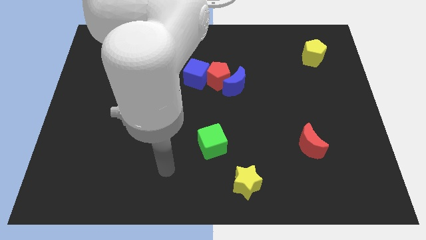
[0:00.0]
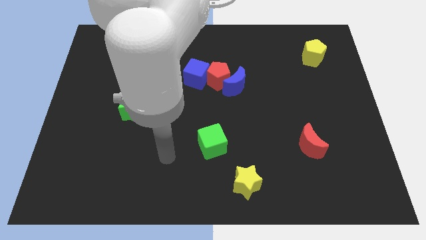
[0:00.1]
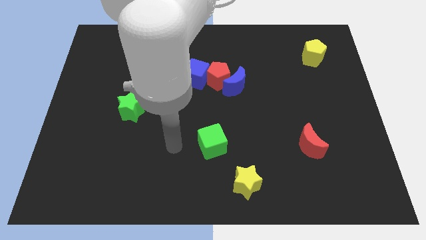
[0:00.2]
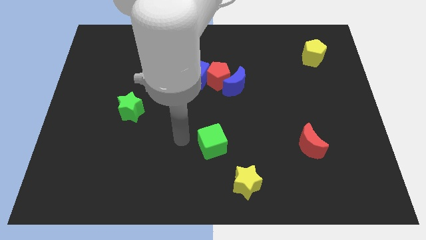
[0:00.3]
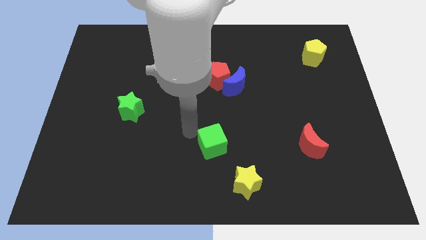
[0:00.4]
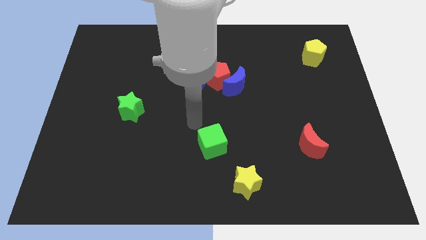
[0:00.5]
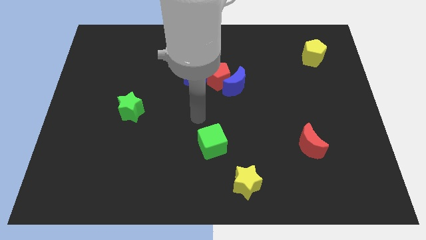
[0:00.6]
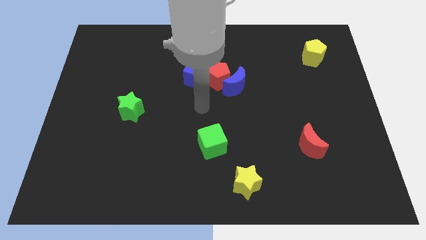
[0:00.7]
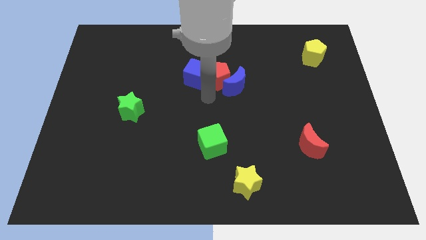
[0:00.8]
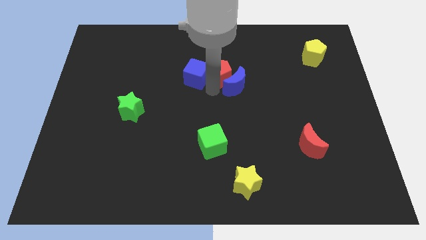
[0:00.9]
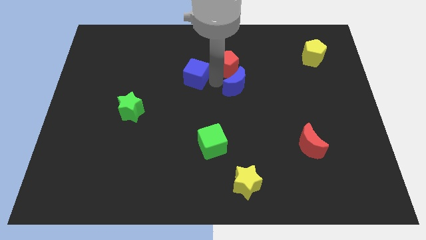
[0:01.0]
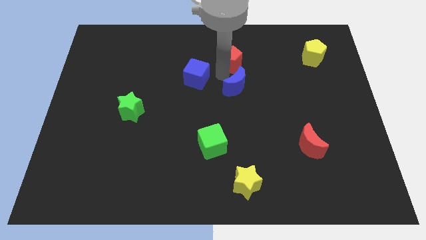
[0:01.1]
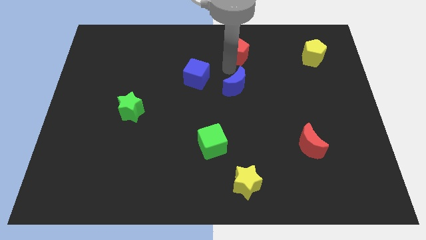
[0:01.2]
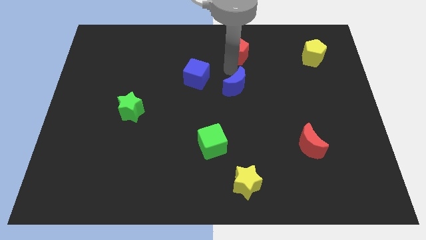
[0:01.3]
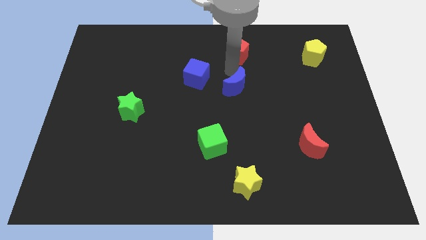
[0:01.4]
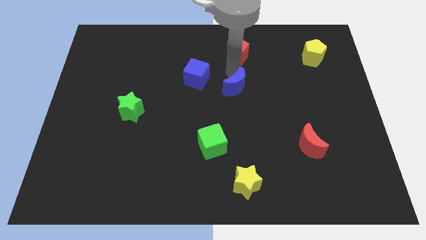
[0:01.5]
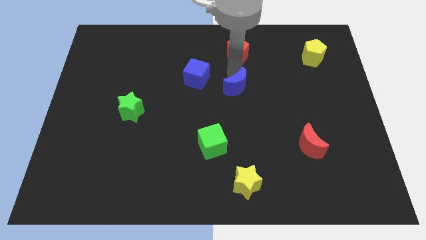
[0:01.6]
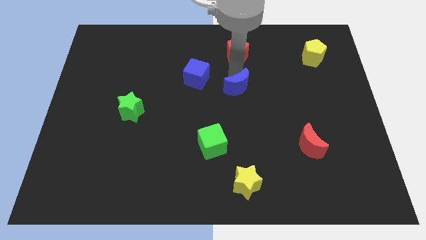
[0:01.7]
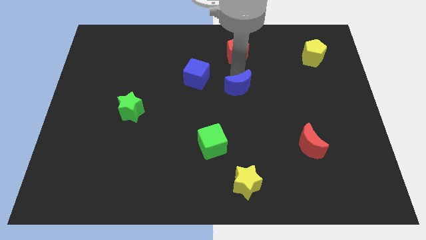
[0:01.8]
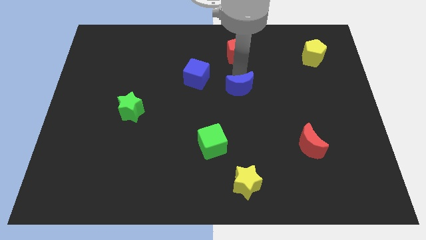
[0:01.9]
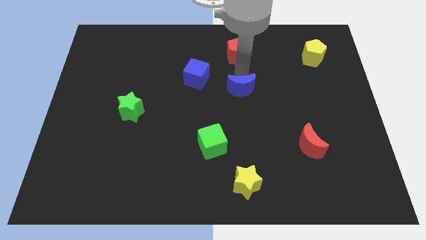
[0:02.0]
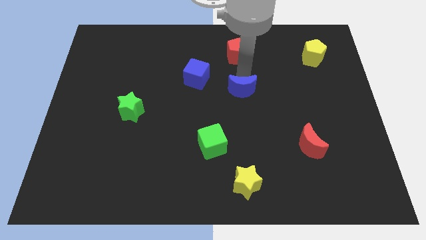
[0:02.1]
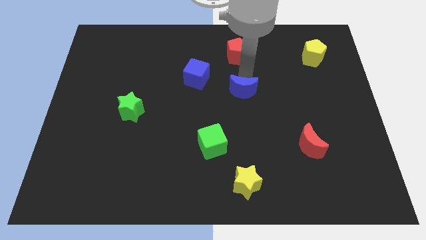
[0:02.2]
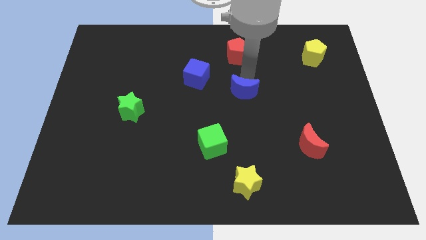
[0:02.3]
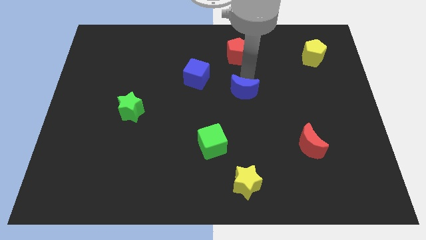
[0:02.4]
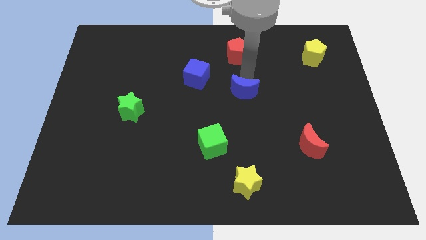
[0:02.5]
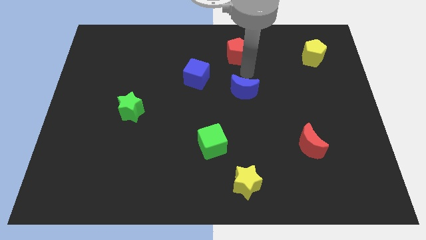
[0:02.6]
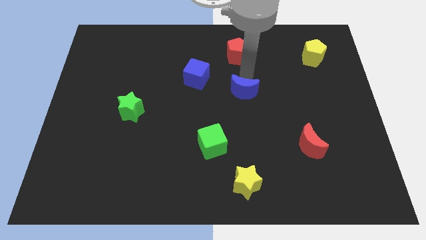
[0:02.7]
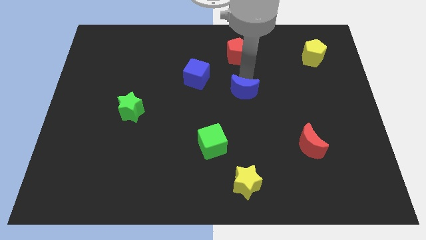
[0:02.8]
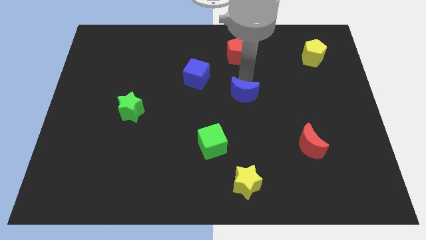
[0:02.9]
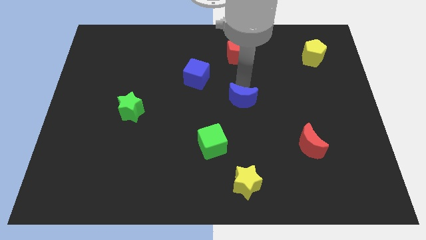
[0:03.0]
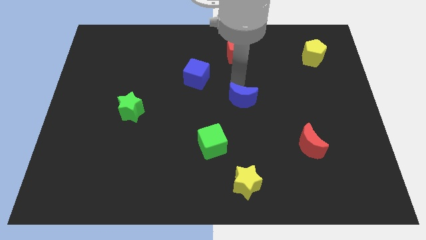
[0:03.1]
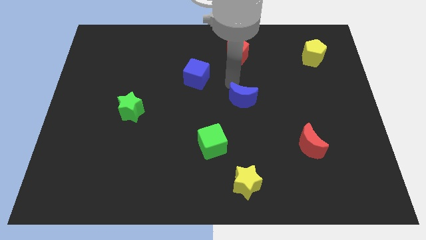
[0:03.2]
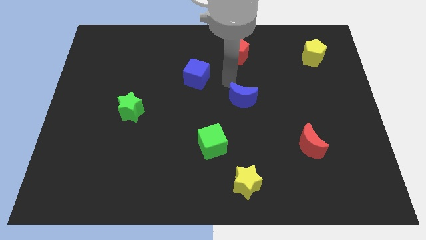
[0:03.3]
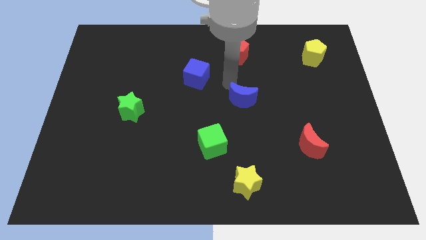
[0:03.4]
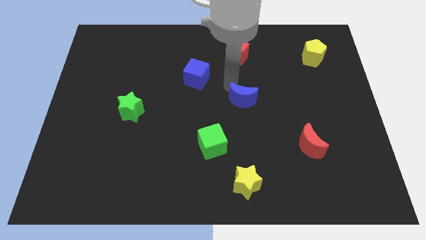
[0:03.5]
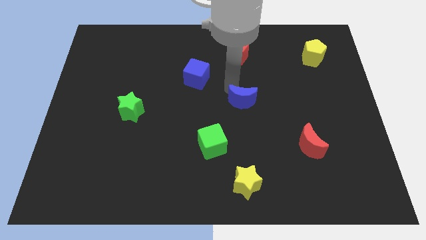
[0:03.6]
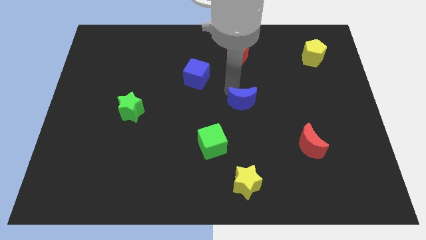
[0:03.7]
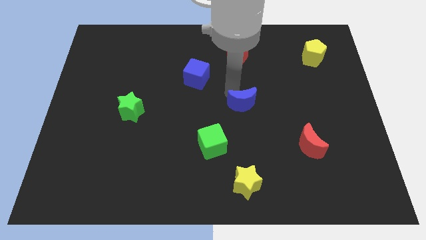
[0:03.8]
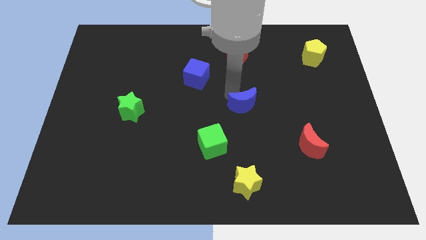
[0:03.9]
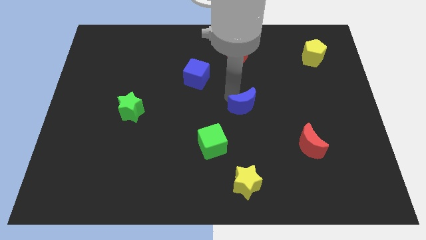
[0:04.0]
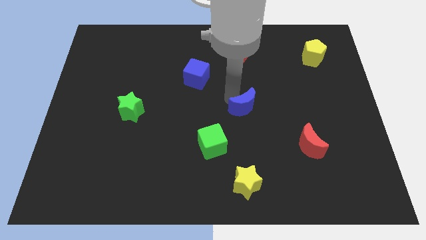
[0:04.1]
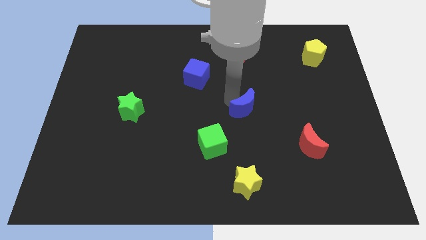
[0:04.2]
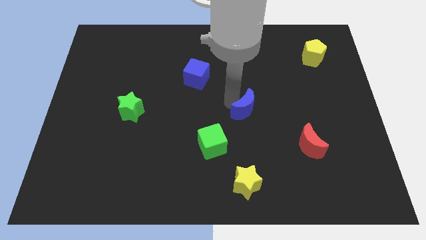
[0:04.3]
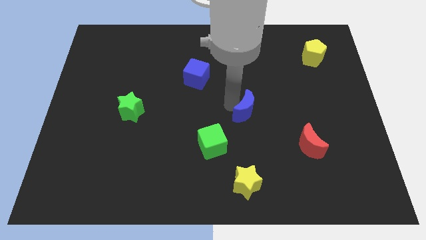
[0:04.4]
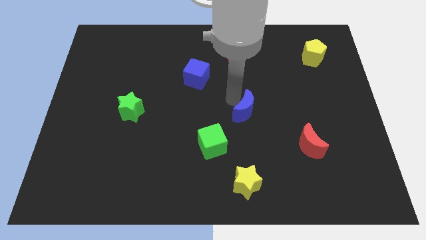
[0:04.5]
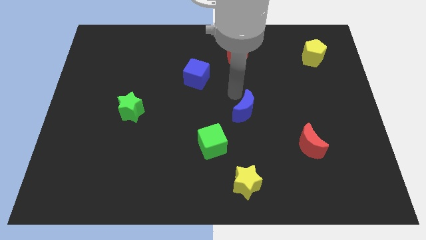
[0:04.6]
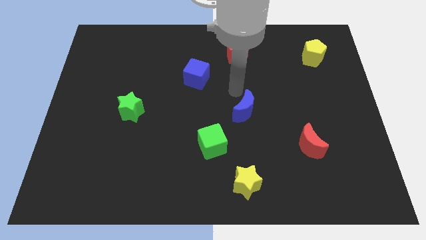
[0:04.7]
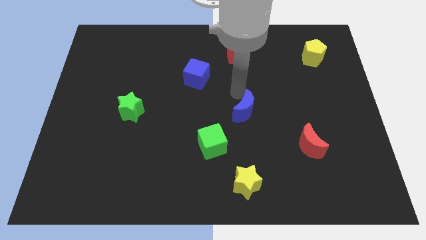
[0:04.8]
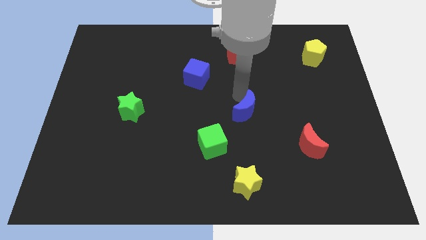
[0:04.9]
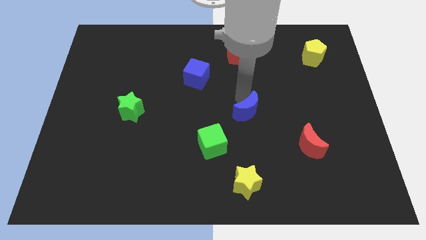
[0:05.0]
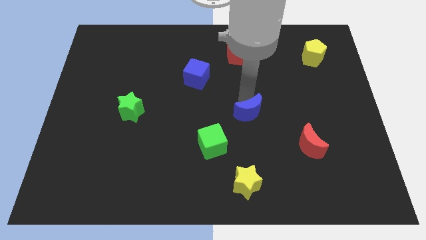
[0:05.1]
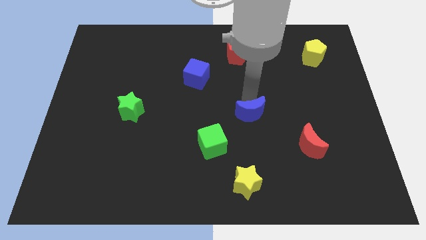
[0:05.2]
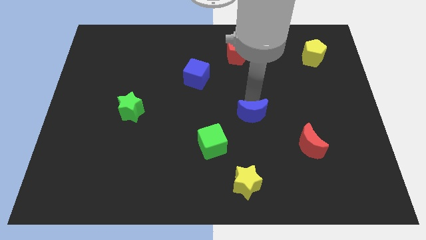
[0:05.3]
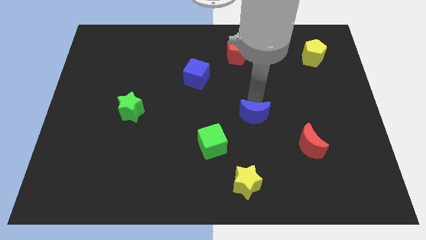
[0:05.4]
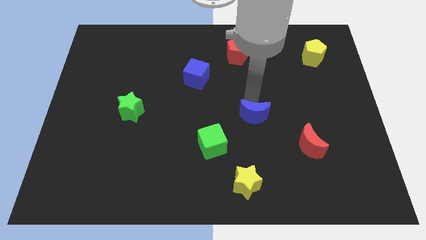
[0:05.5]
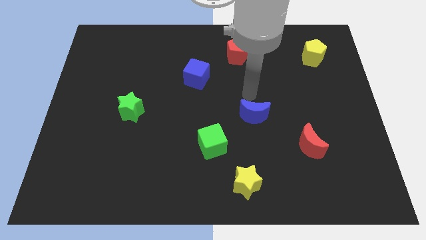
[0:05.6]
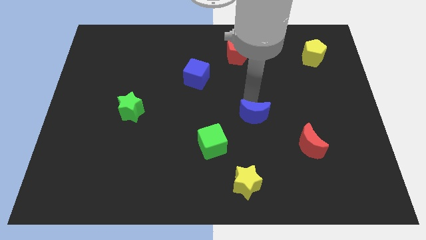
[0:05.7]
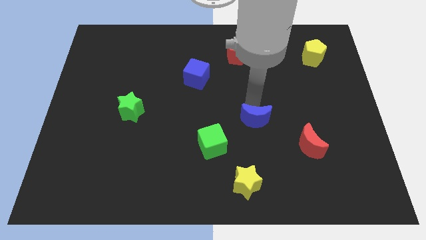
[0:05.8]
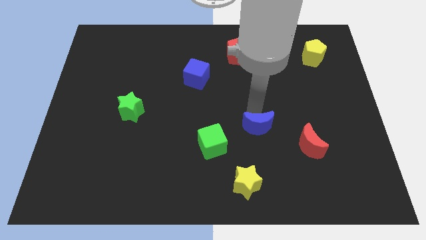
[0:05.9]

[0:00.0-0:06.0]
slide the blue moon to the right of the green cube

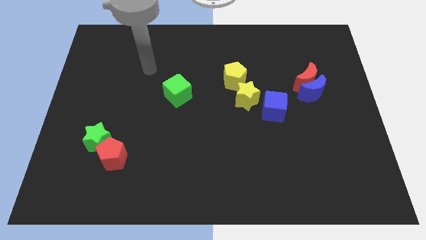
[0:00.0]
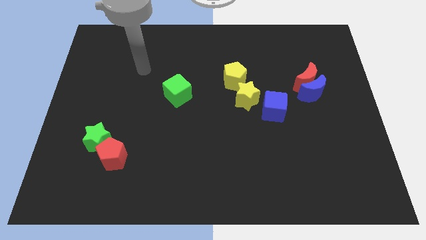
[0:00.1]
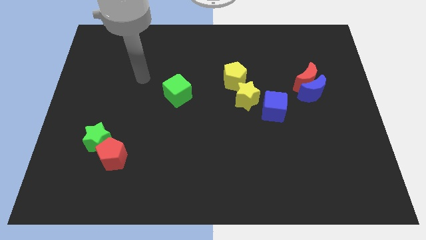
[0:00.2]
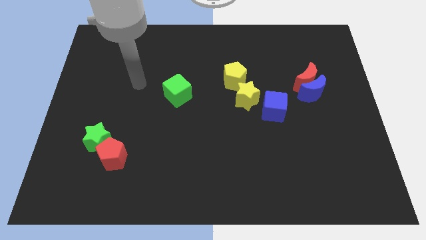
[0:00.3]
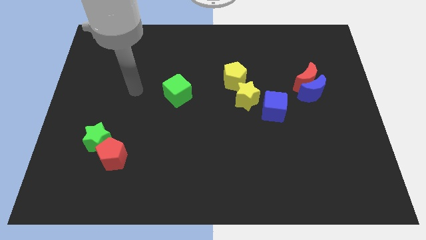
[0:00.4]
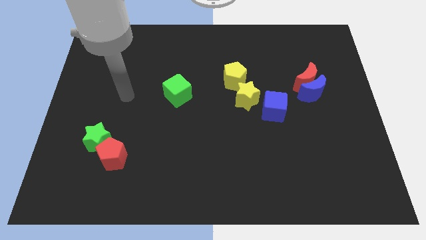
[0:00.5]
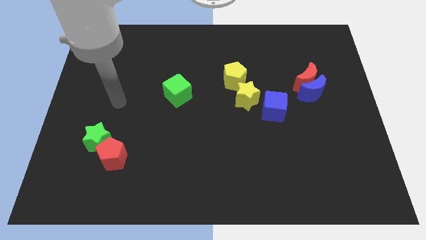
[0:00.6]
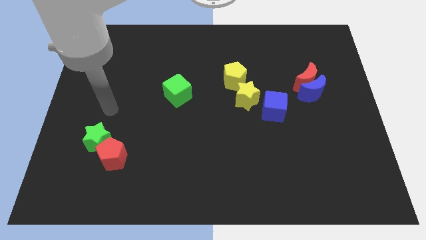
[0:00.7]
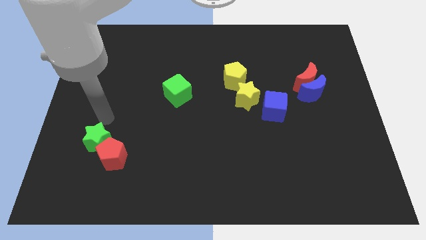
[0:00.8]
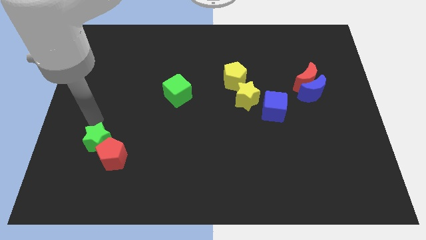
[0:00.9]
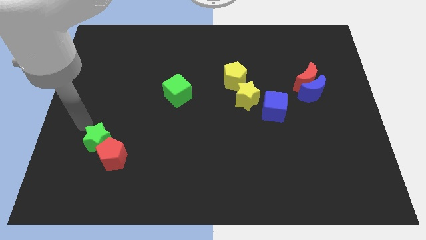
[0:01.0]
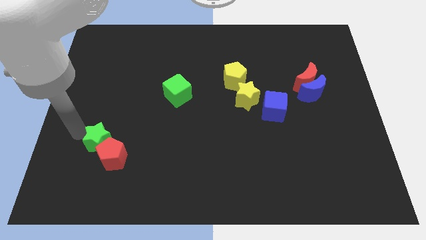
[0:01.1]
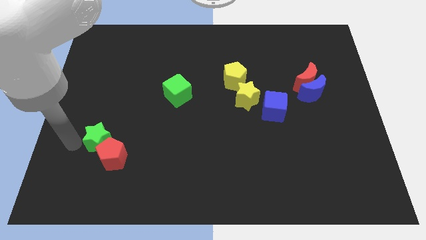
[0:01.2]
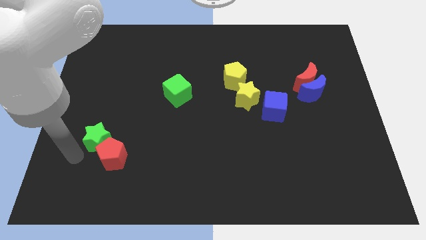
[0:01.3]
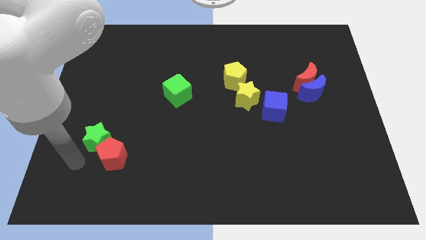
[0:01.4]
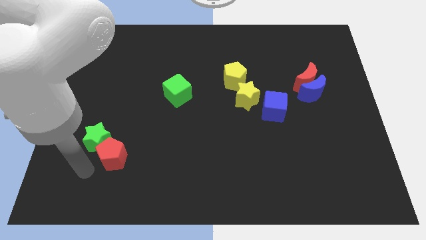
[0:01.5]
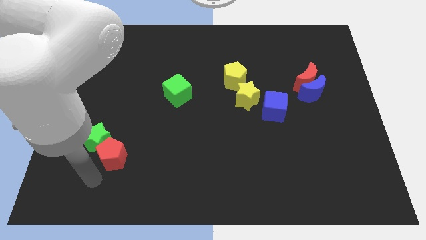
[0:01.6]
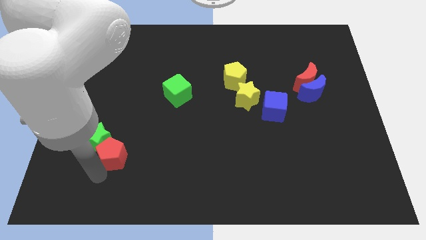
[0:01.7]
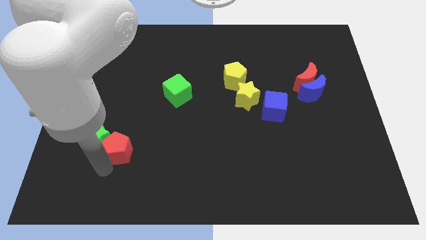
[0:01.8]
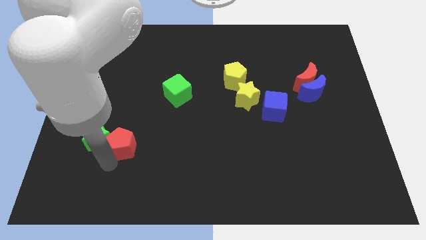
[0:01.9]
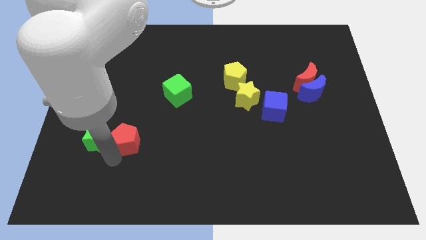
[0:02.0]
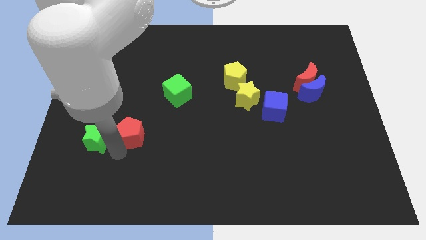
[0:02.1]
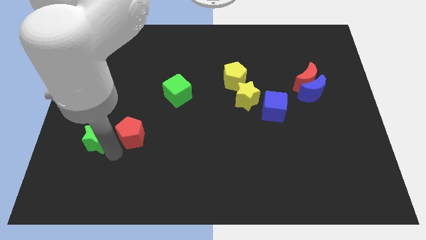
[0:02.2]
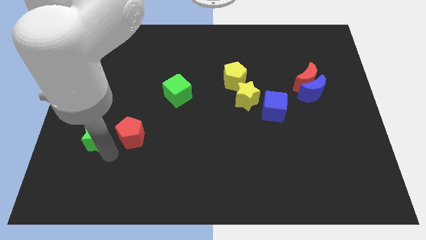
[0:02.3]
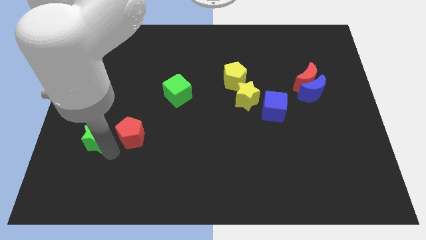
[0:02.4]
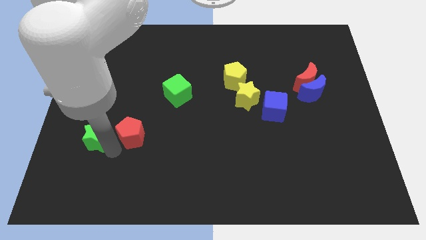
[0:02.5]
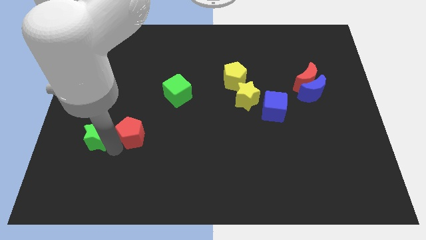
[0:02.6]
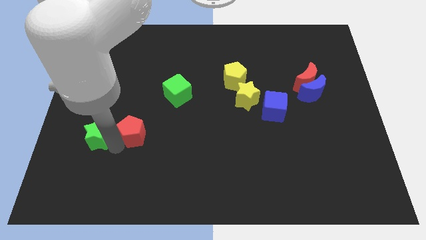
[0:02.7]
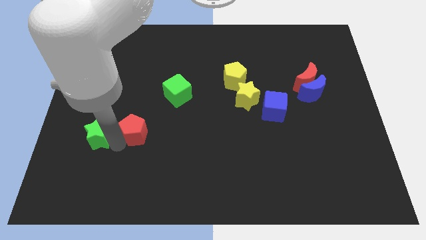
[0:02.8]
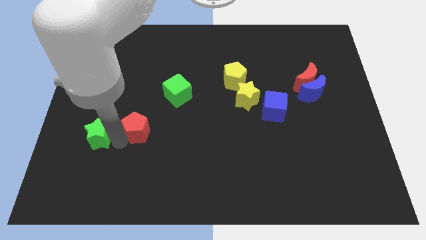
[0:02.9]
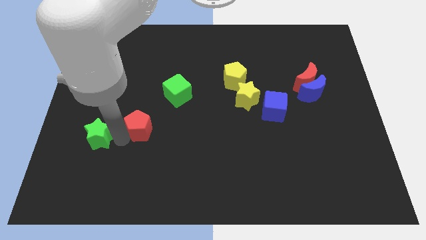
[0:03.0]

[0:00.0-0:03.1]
slide the red pentagon to the bottom left side of the green cube
